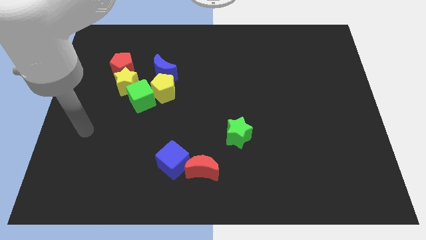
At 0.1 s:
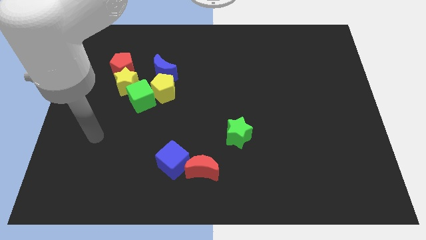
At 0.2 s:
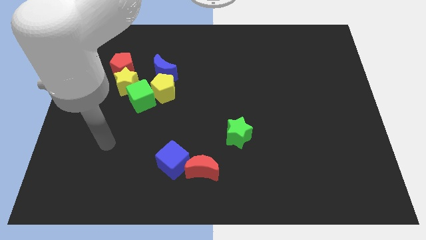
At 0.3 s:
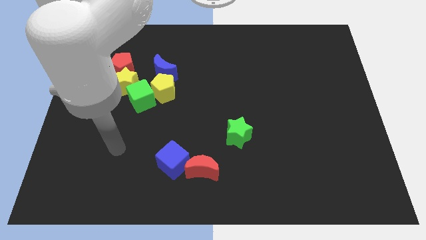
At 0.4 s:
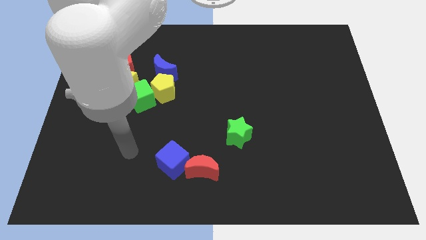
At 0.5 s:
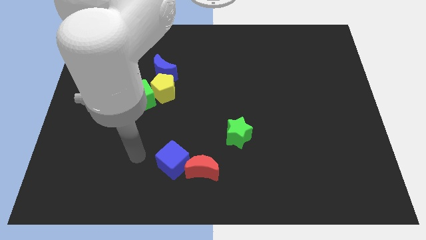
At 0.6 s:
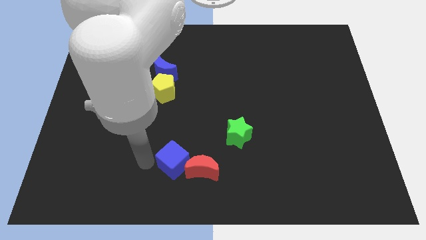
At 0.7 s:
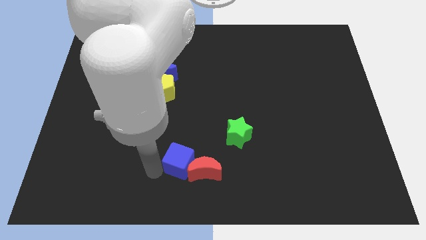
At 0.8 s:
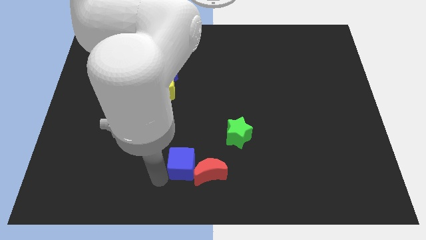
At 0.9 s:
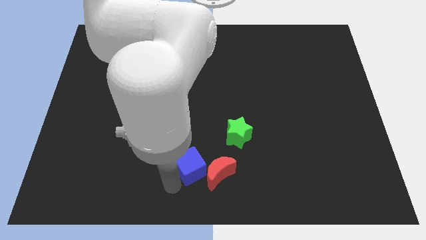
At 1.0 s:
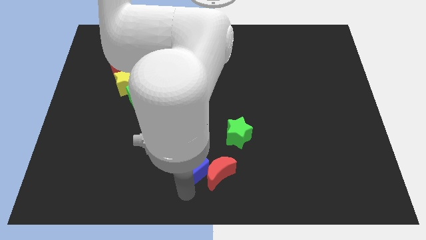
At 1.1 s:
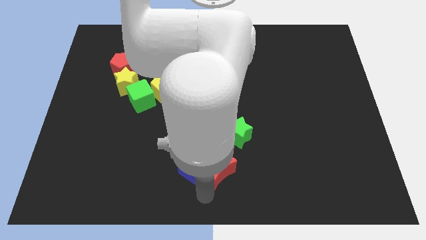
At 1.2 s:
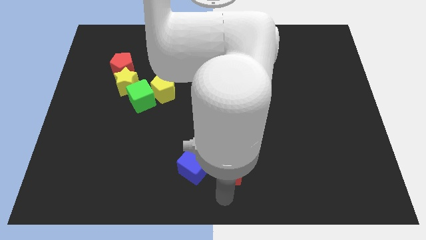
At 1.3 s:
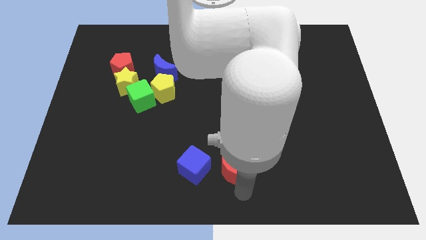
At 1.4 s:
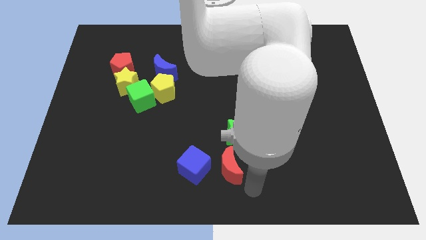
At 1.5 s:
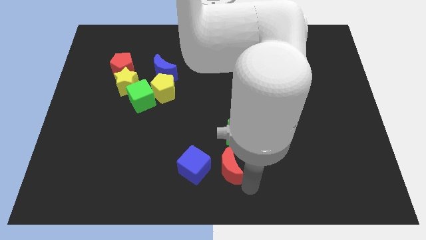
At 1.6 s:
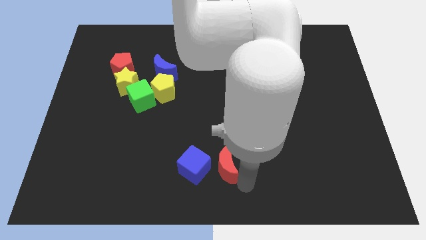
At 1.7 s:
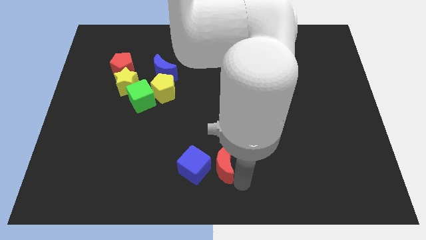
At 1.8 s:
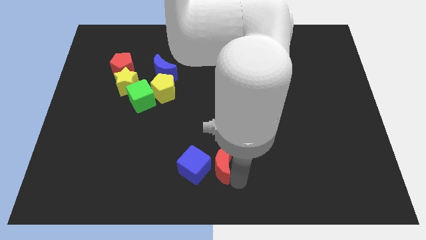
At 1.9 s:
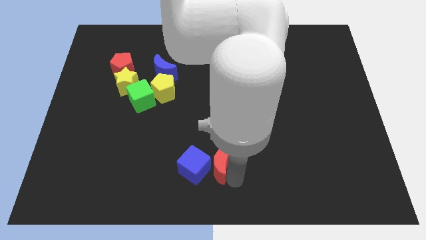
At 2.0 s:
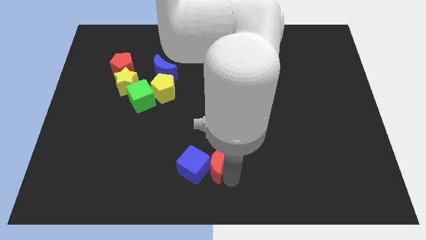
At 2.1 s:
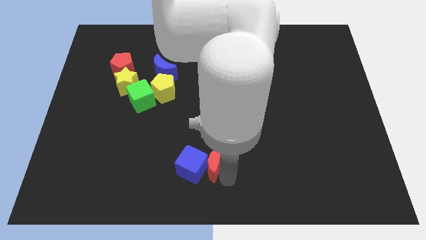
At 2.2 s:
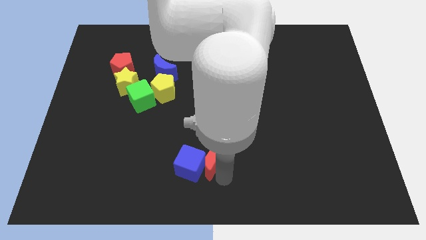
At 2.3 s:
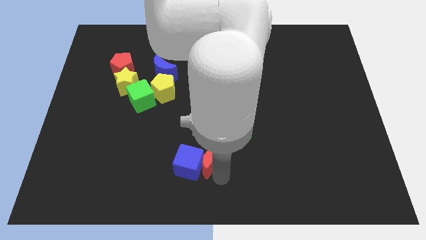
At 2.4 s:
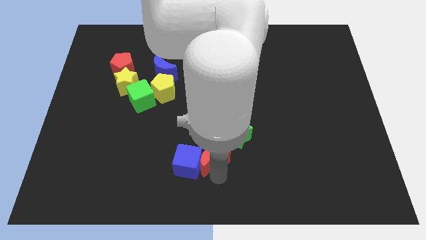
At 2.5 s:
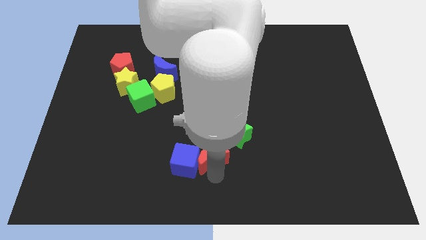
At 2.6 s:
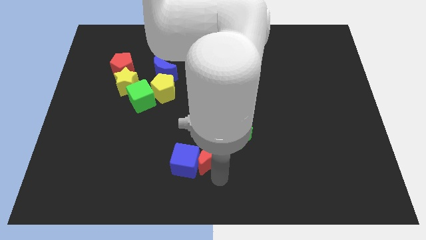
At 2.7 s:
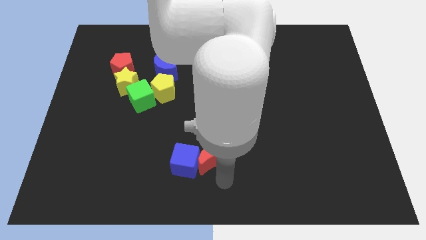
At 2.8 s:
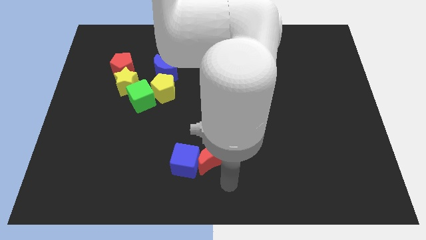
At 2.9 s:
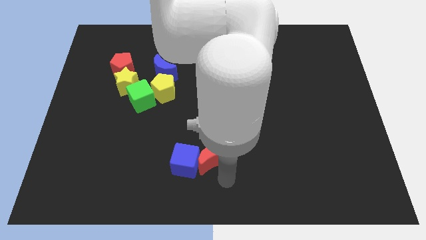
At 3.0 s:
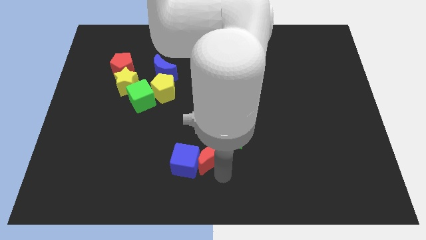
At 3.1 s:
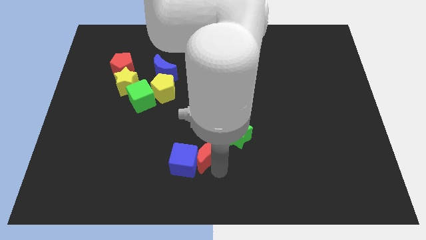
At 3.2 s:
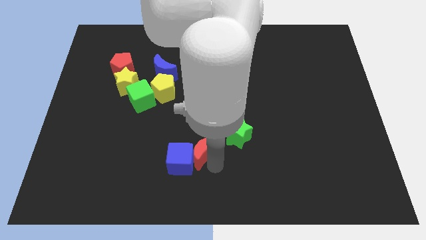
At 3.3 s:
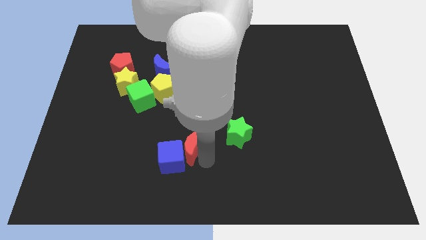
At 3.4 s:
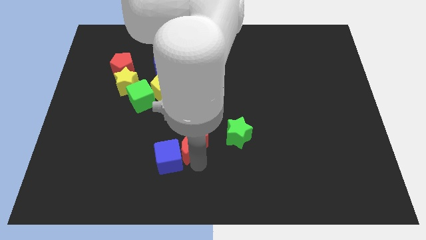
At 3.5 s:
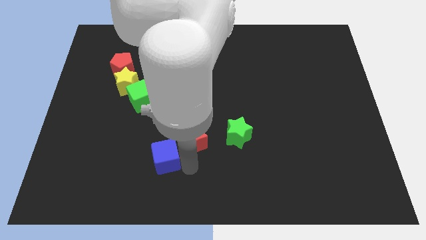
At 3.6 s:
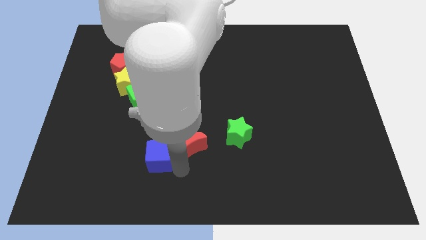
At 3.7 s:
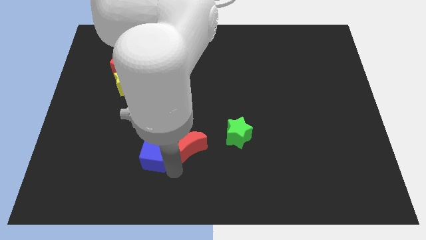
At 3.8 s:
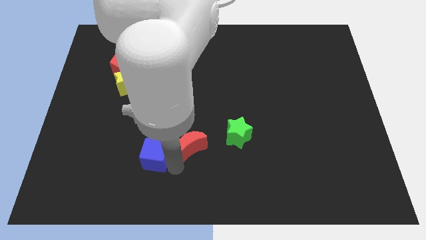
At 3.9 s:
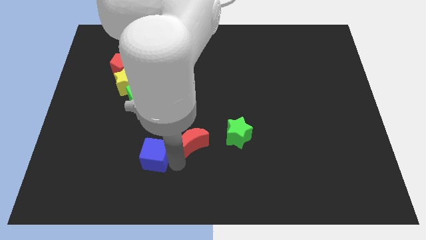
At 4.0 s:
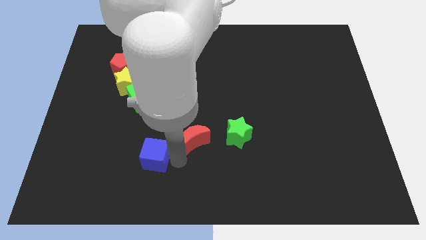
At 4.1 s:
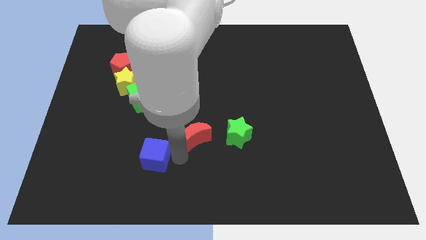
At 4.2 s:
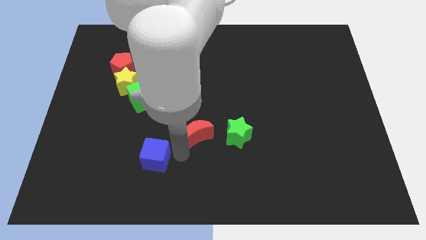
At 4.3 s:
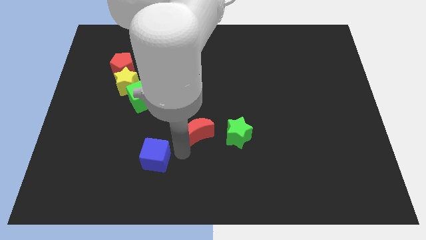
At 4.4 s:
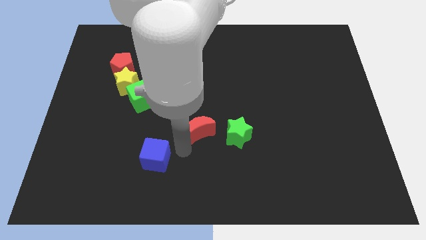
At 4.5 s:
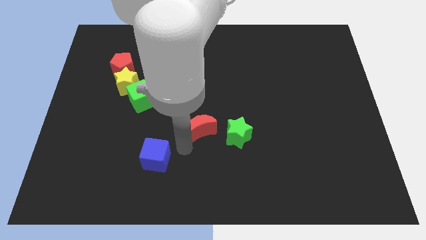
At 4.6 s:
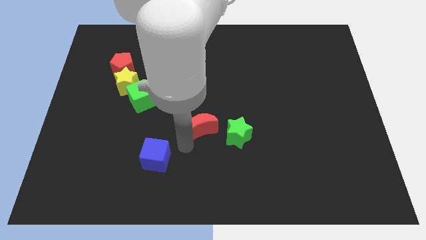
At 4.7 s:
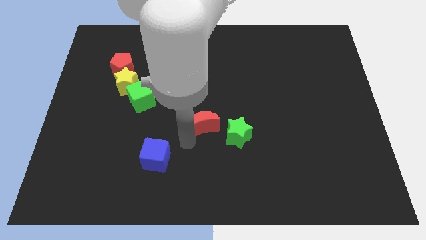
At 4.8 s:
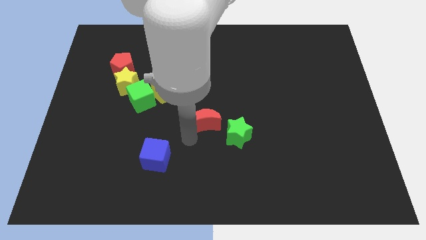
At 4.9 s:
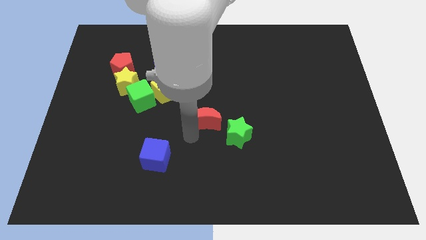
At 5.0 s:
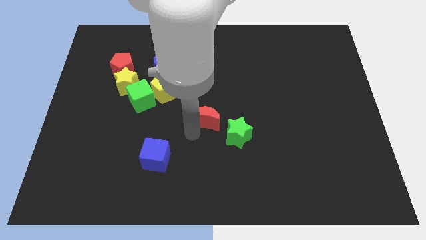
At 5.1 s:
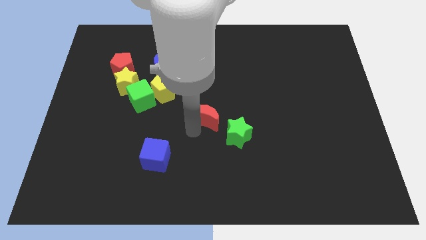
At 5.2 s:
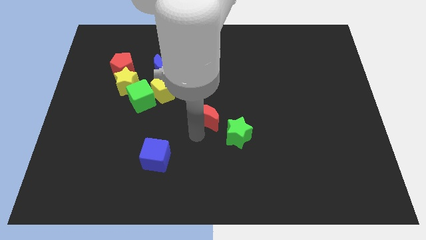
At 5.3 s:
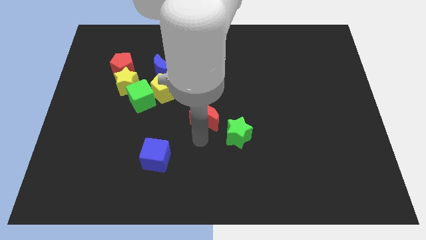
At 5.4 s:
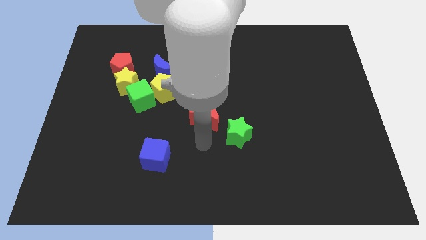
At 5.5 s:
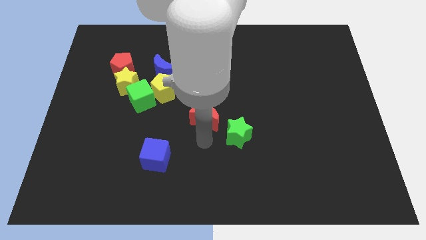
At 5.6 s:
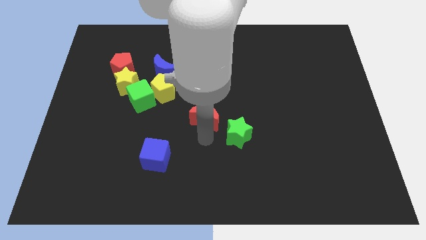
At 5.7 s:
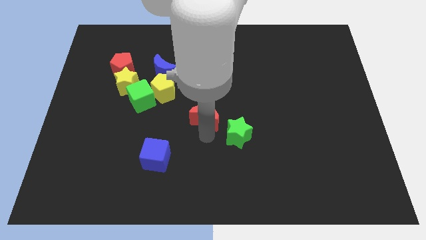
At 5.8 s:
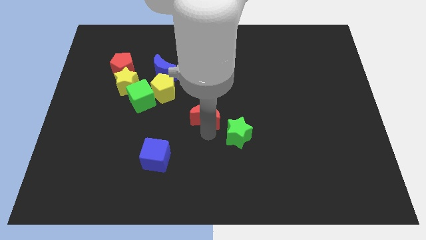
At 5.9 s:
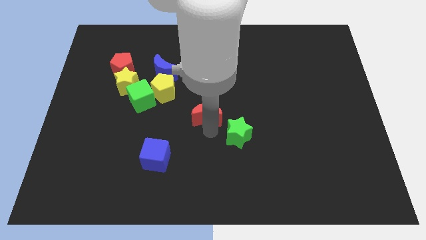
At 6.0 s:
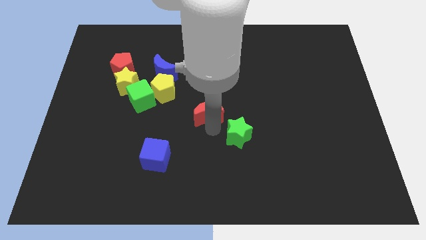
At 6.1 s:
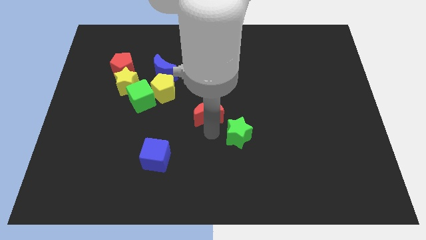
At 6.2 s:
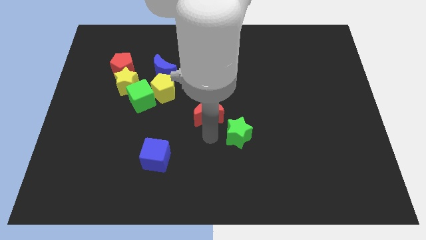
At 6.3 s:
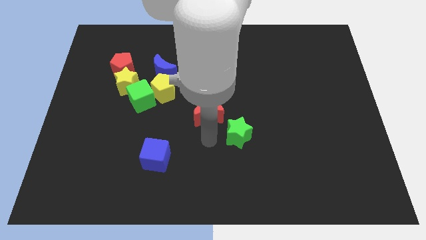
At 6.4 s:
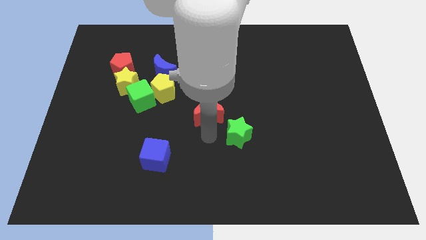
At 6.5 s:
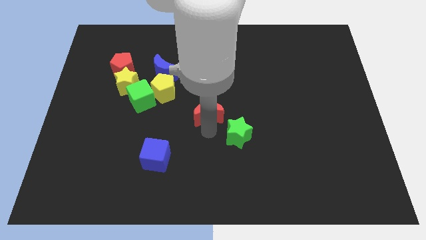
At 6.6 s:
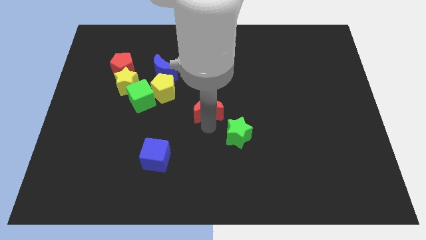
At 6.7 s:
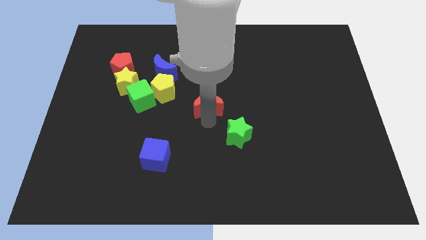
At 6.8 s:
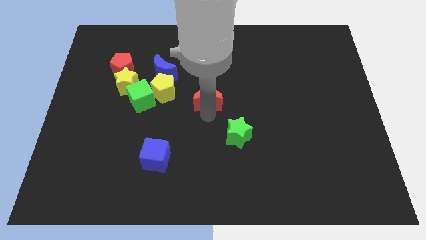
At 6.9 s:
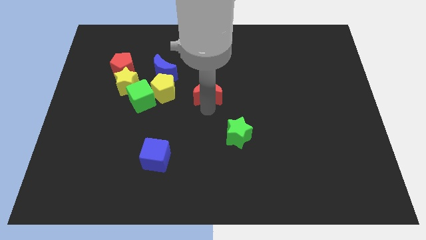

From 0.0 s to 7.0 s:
push the red moon upwards

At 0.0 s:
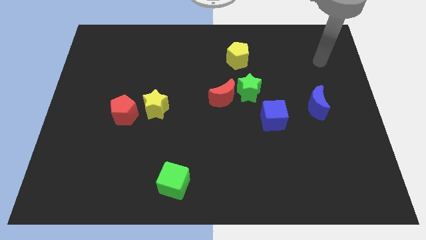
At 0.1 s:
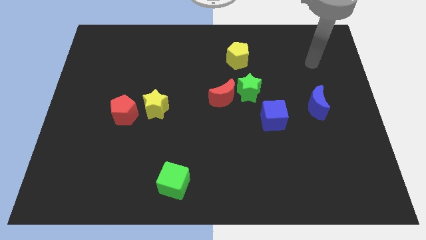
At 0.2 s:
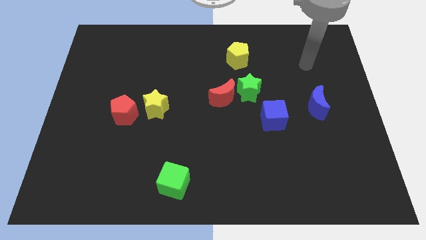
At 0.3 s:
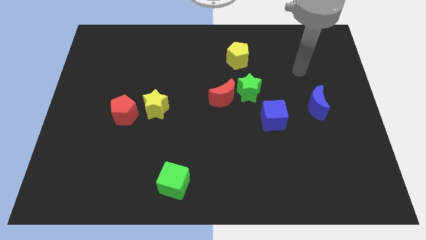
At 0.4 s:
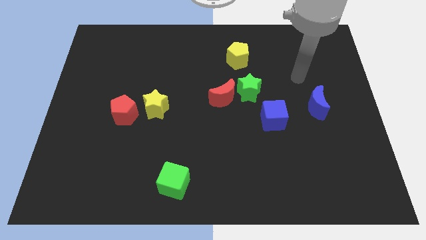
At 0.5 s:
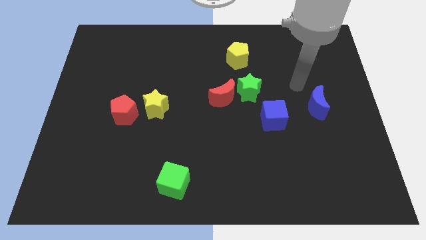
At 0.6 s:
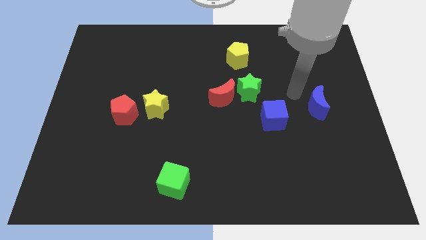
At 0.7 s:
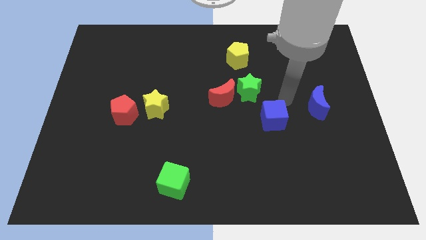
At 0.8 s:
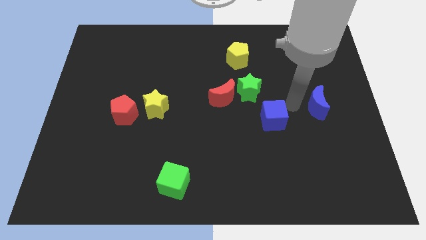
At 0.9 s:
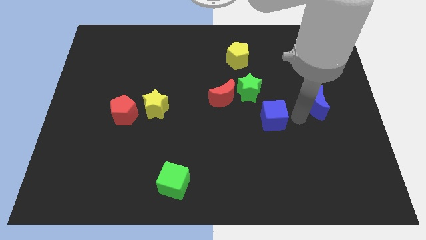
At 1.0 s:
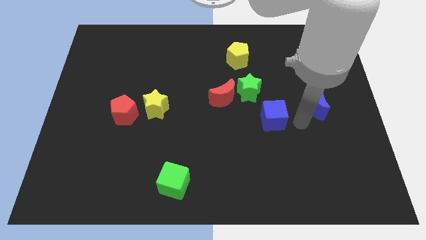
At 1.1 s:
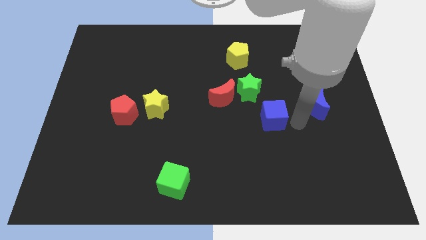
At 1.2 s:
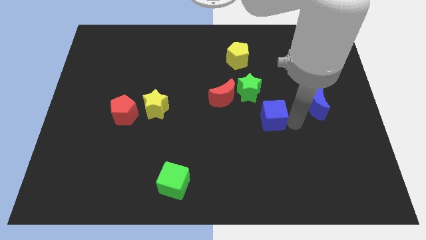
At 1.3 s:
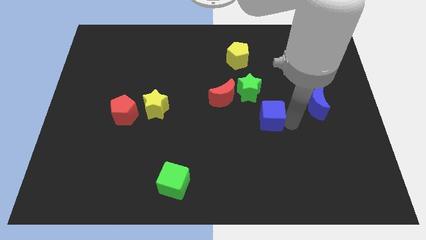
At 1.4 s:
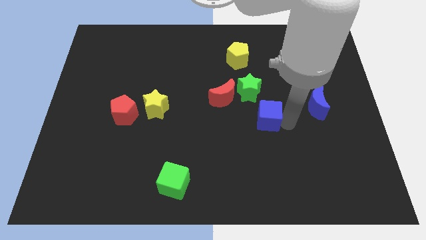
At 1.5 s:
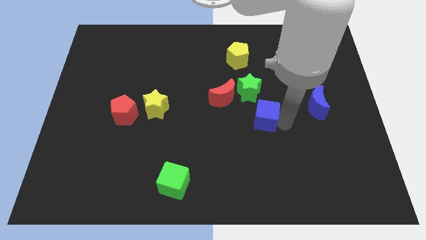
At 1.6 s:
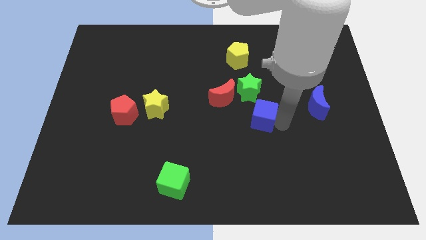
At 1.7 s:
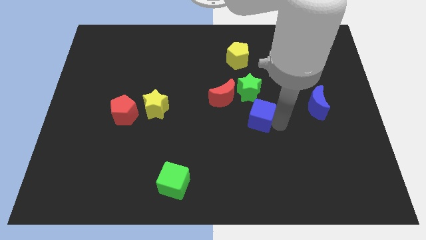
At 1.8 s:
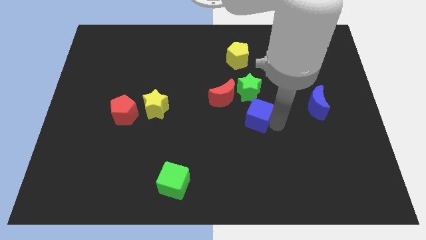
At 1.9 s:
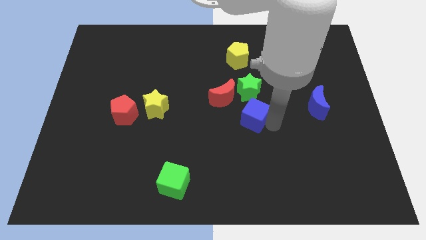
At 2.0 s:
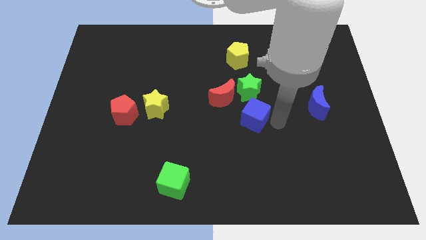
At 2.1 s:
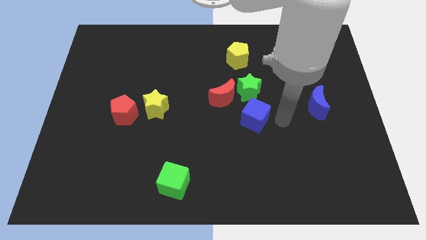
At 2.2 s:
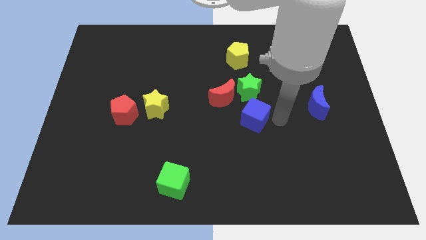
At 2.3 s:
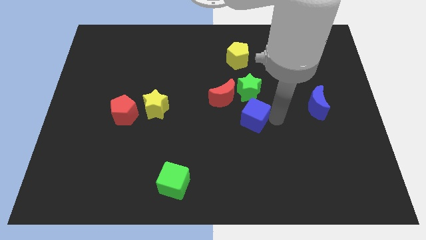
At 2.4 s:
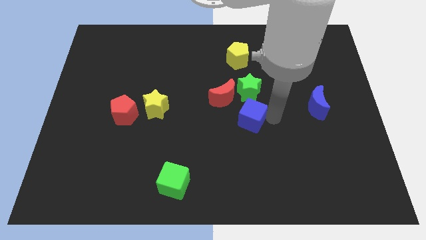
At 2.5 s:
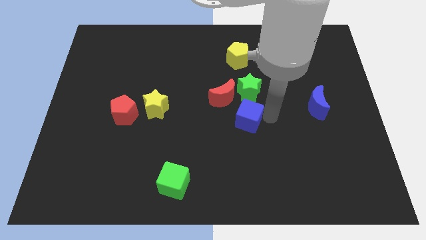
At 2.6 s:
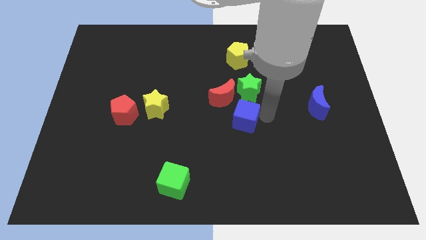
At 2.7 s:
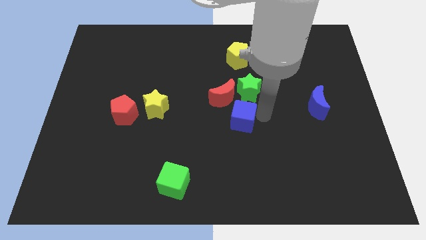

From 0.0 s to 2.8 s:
move the blue cube somewhat left
